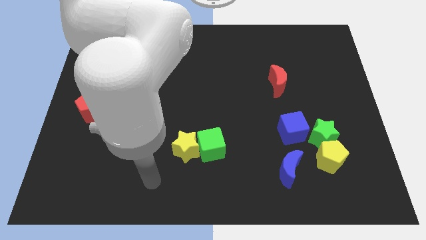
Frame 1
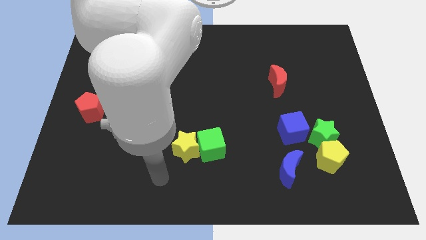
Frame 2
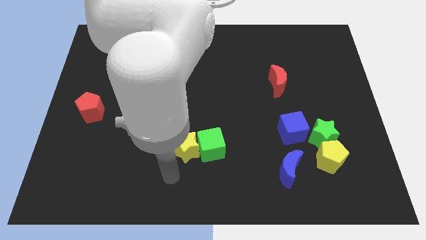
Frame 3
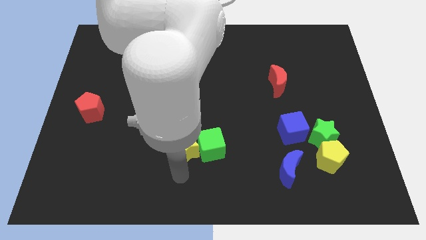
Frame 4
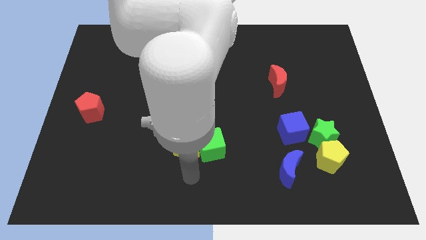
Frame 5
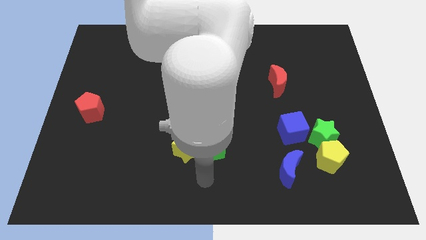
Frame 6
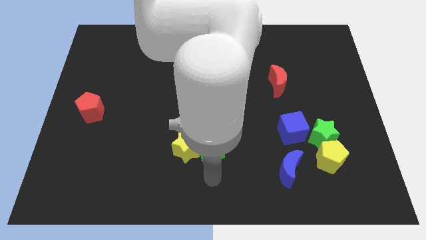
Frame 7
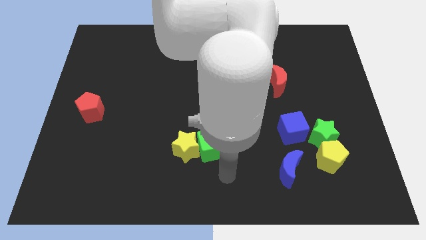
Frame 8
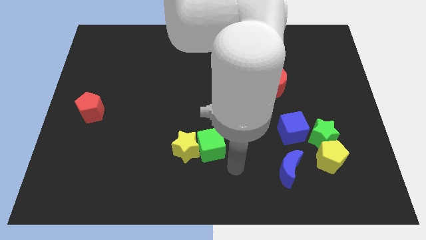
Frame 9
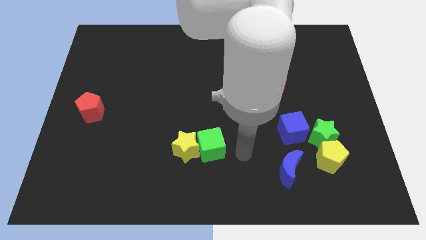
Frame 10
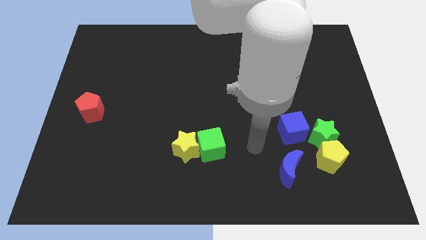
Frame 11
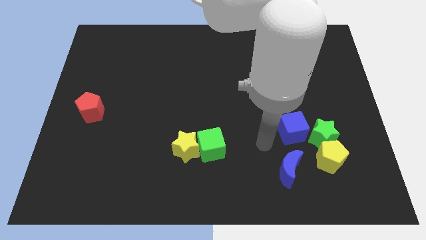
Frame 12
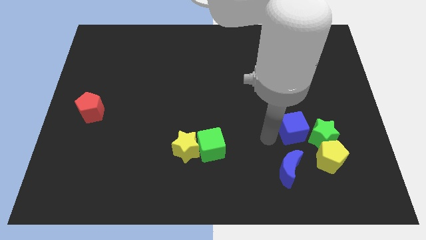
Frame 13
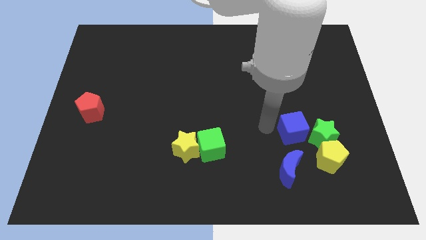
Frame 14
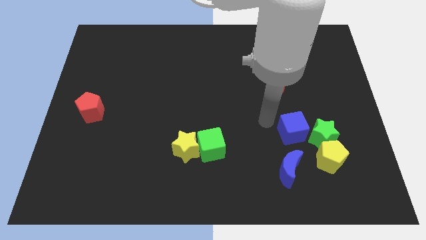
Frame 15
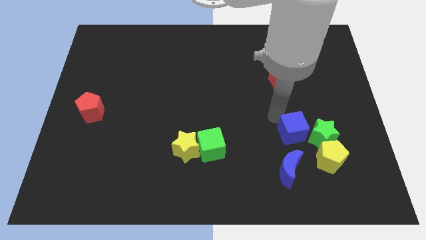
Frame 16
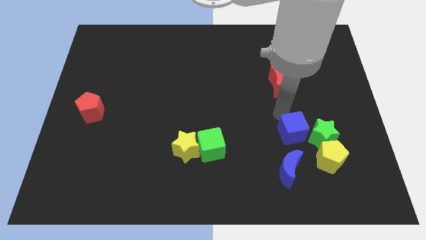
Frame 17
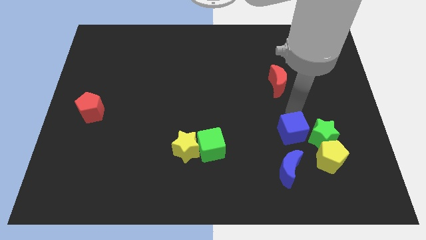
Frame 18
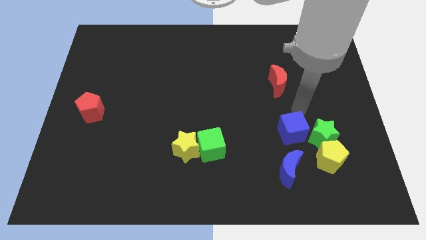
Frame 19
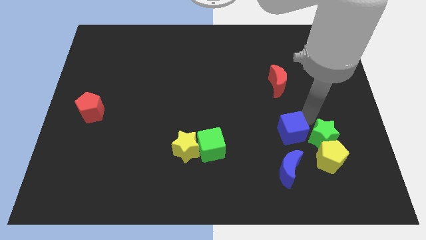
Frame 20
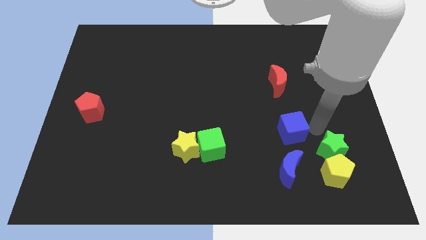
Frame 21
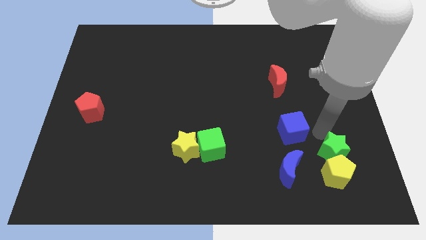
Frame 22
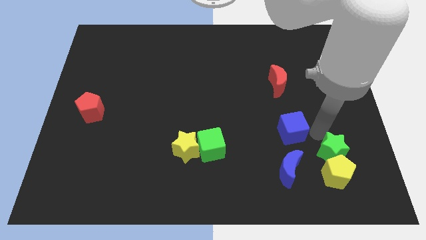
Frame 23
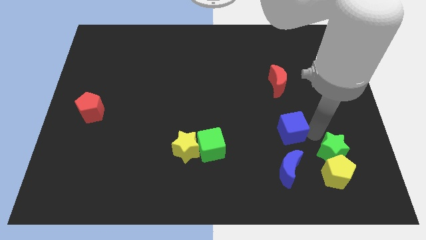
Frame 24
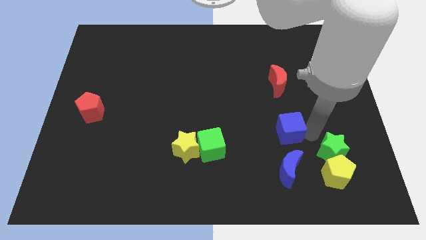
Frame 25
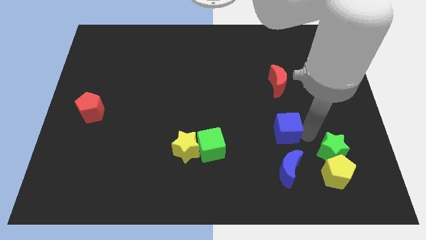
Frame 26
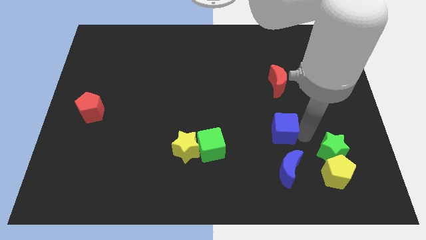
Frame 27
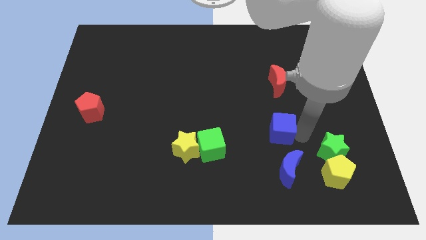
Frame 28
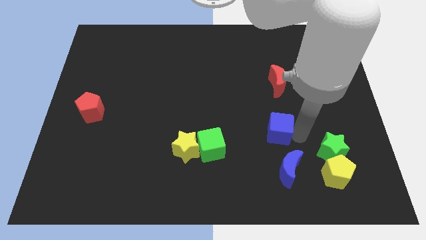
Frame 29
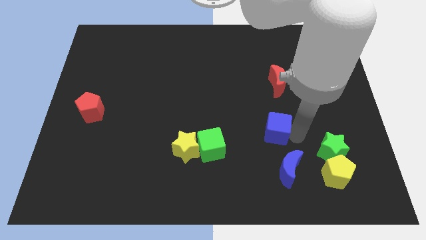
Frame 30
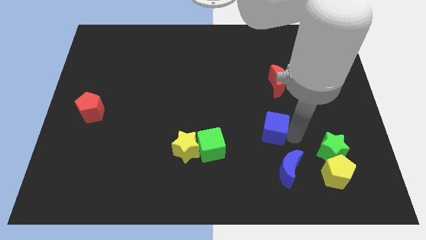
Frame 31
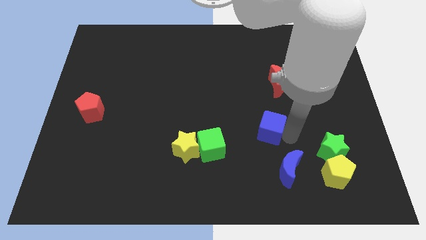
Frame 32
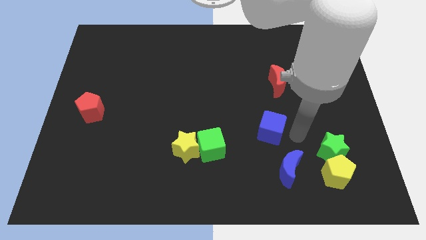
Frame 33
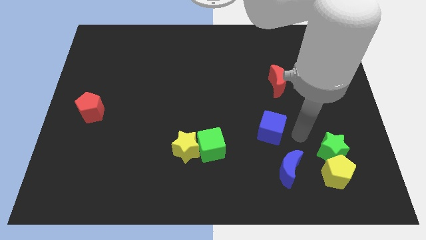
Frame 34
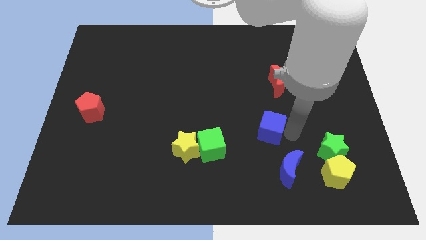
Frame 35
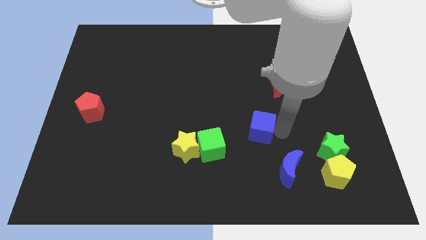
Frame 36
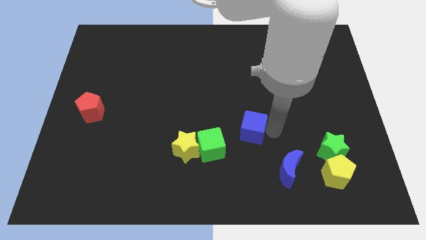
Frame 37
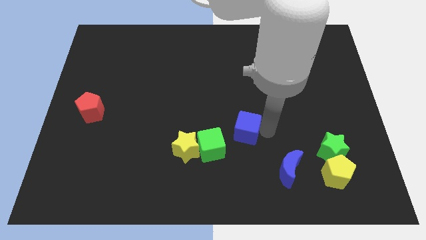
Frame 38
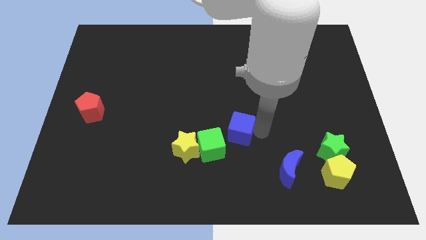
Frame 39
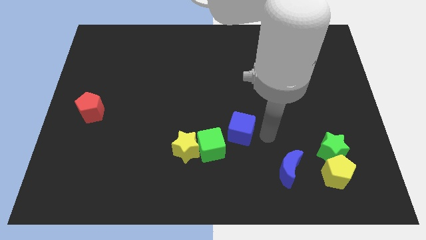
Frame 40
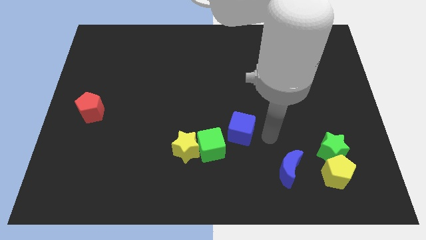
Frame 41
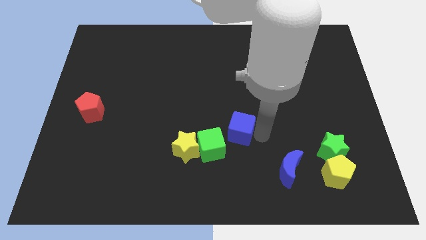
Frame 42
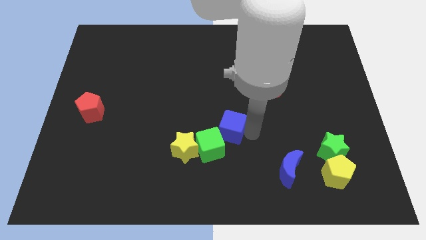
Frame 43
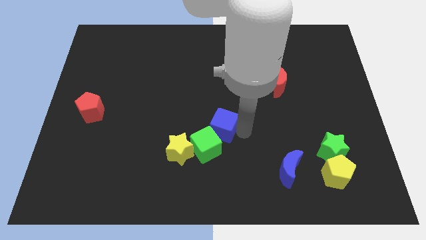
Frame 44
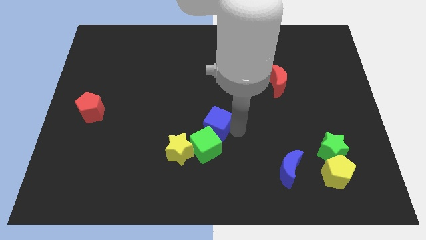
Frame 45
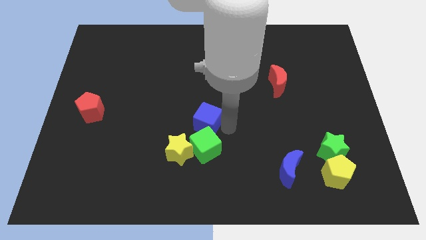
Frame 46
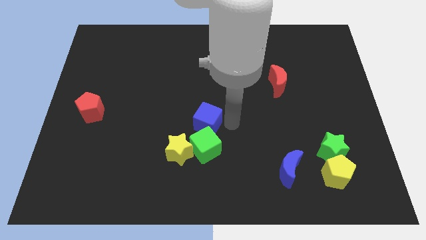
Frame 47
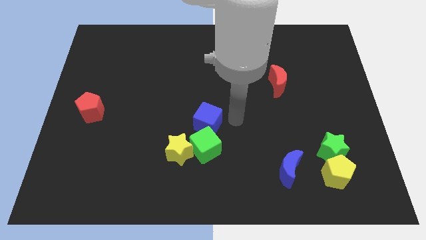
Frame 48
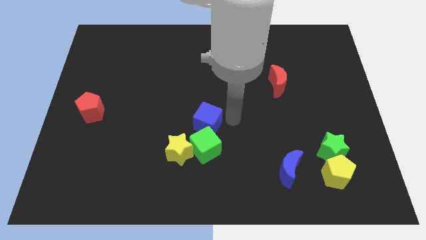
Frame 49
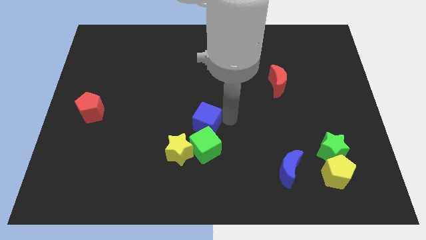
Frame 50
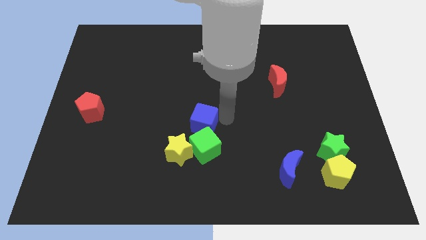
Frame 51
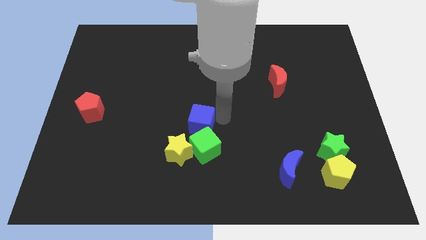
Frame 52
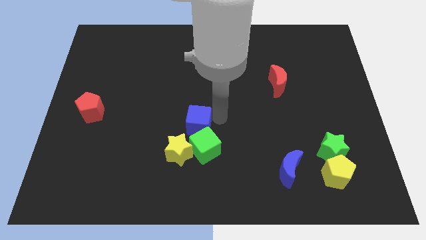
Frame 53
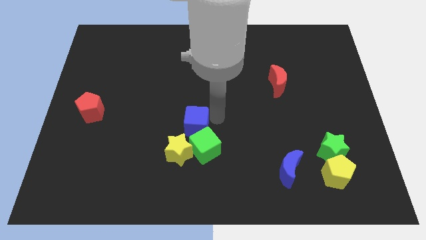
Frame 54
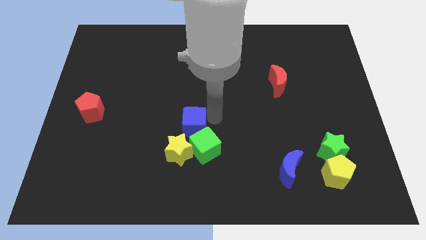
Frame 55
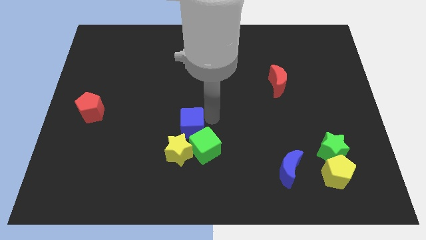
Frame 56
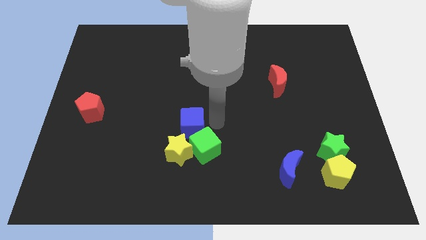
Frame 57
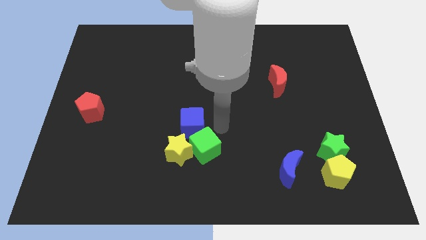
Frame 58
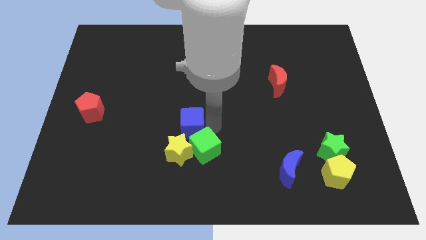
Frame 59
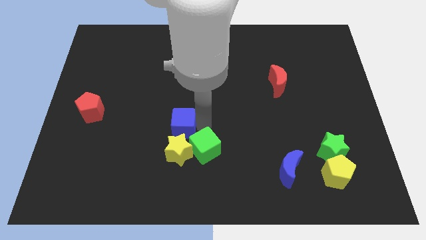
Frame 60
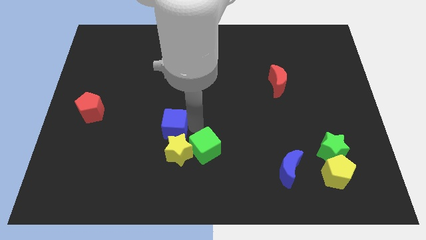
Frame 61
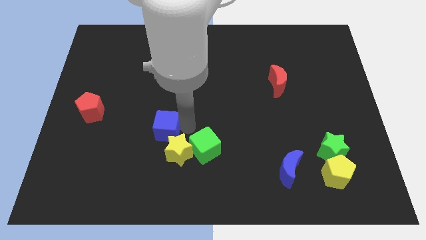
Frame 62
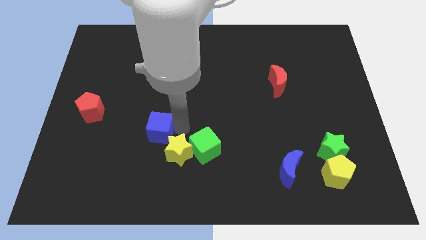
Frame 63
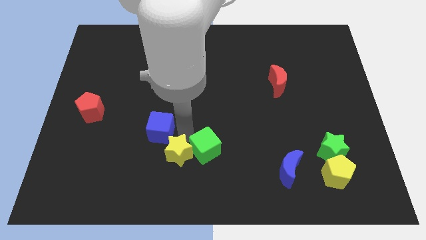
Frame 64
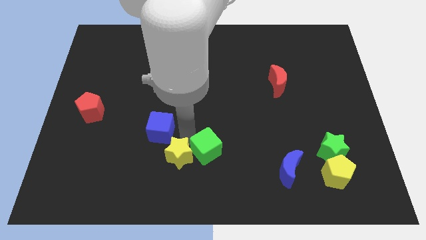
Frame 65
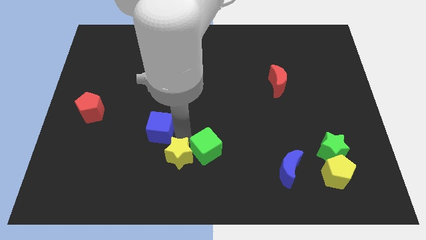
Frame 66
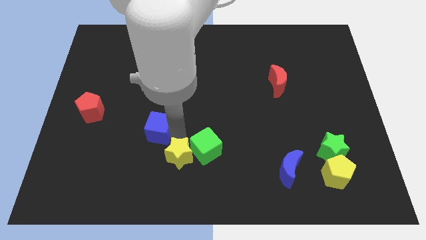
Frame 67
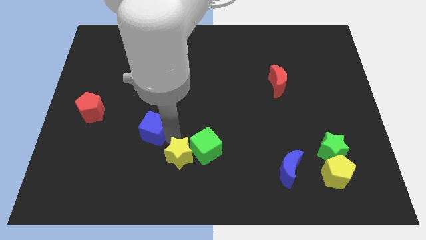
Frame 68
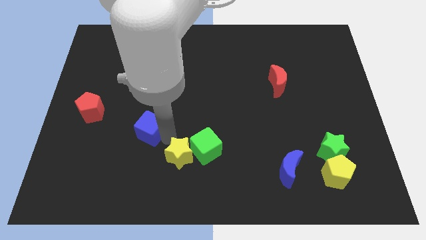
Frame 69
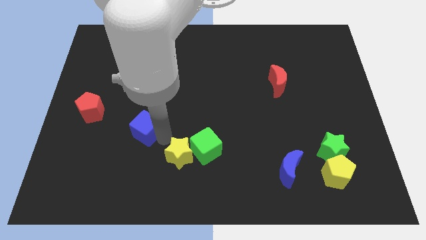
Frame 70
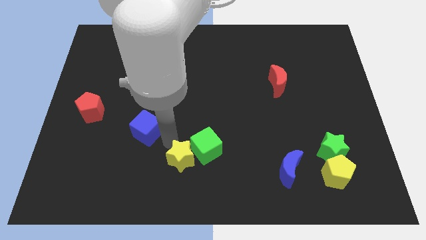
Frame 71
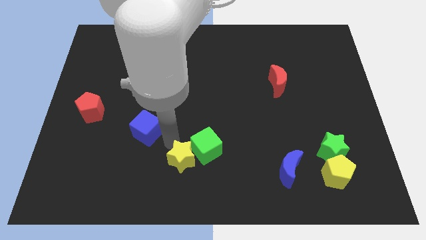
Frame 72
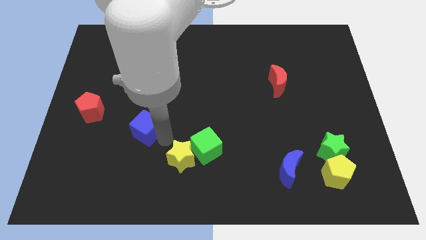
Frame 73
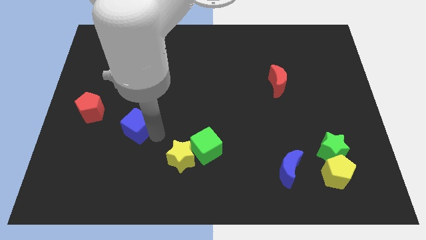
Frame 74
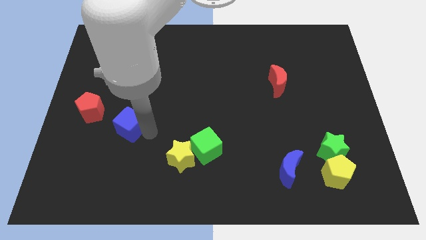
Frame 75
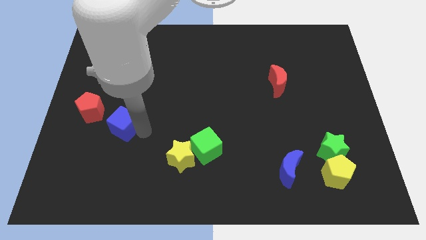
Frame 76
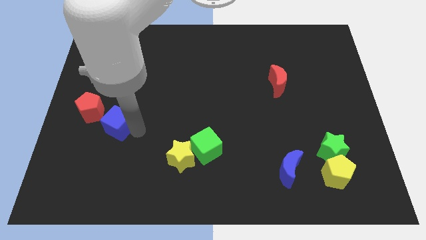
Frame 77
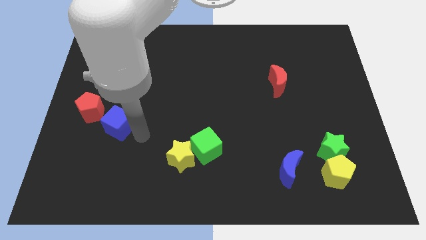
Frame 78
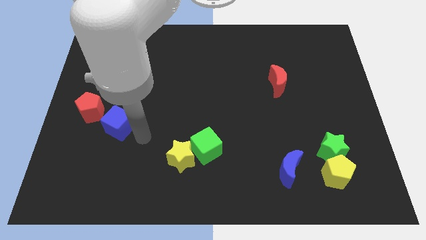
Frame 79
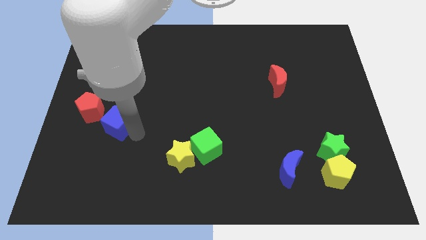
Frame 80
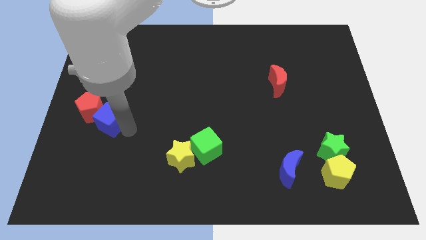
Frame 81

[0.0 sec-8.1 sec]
push the blue cube to the red pentagon
